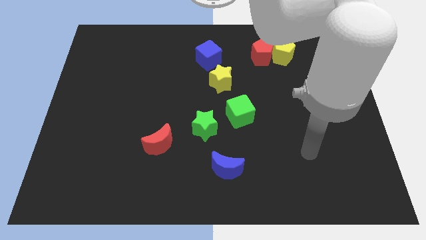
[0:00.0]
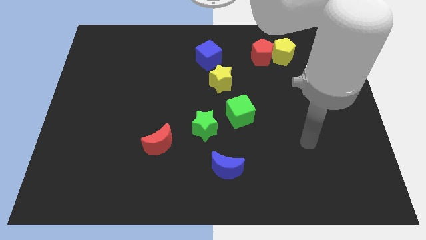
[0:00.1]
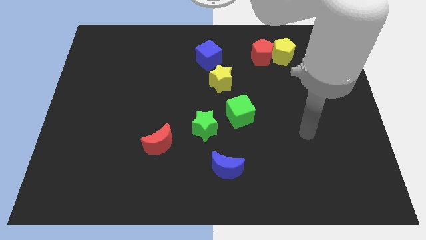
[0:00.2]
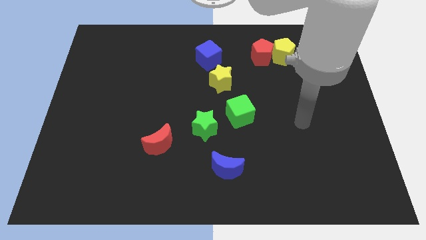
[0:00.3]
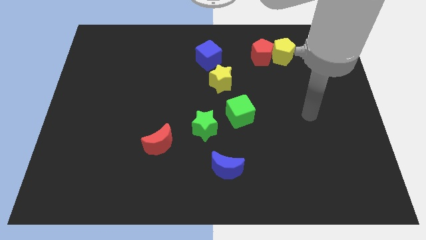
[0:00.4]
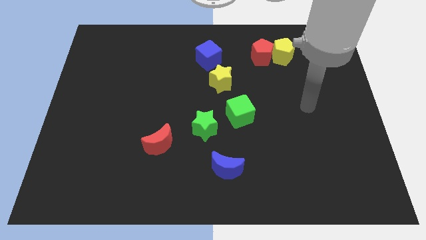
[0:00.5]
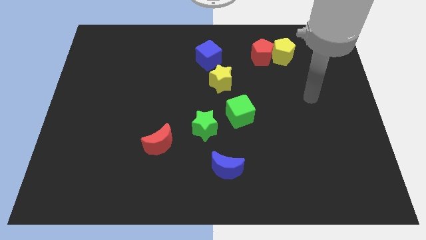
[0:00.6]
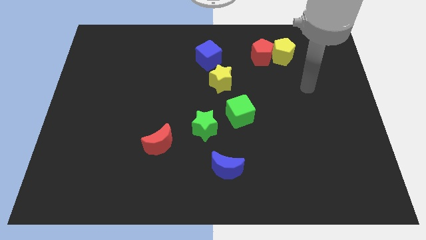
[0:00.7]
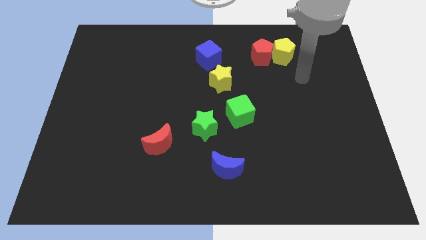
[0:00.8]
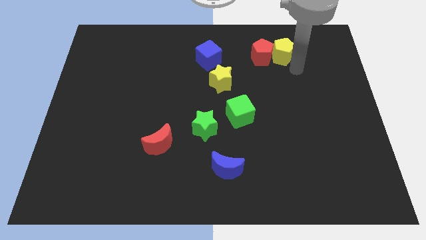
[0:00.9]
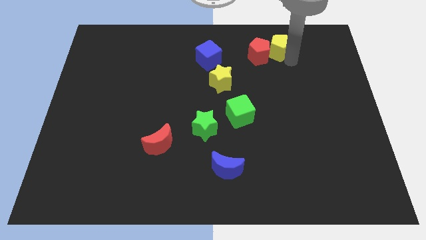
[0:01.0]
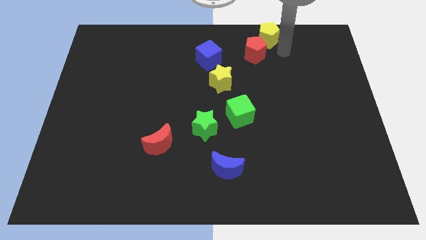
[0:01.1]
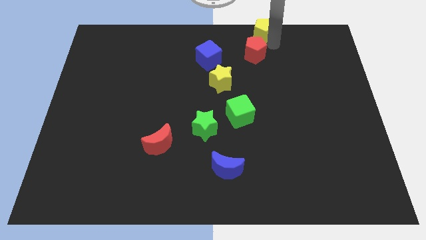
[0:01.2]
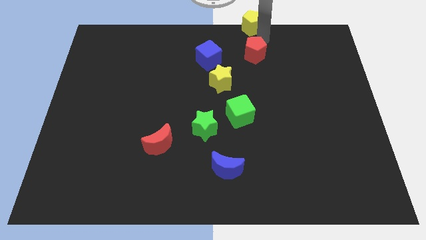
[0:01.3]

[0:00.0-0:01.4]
move the red pentagon away from the yellow pentagon

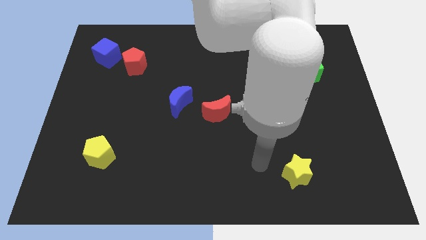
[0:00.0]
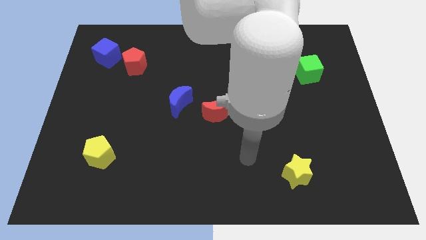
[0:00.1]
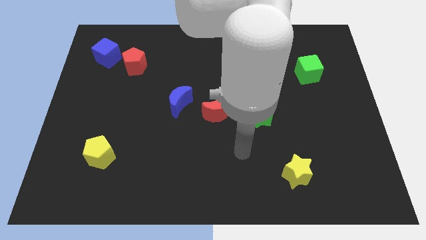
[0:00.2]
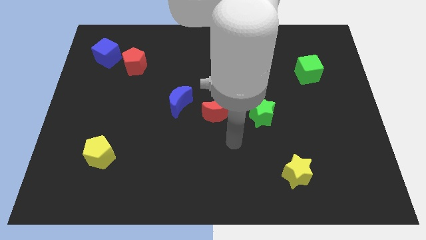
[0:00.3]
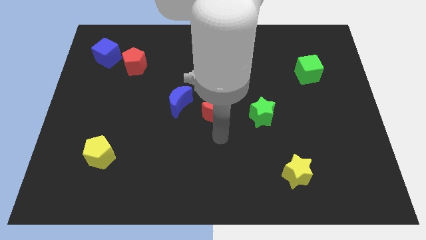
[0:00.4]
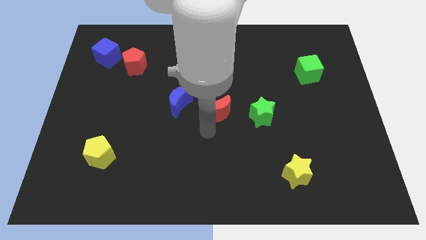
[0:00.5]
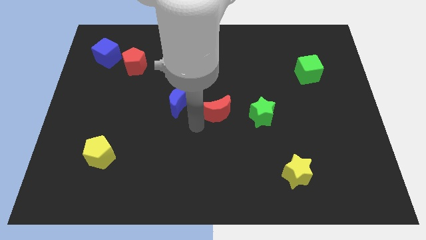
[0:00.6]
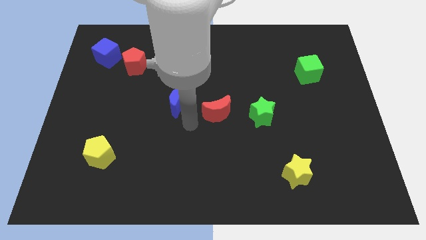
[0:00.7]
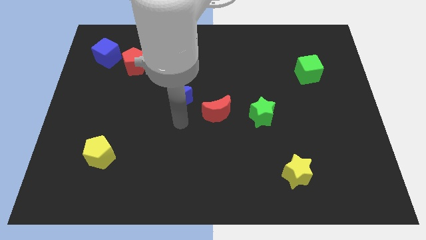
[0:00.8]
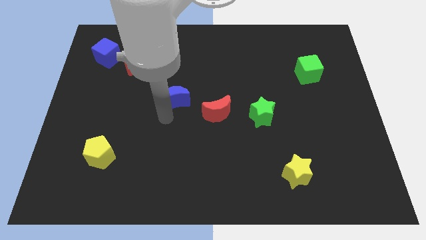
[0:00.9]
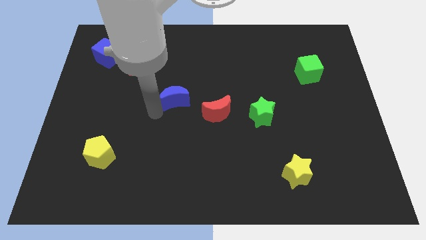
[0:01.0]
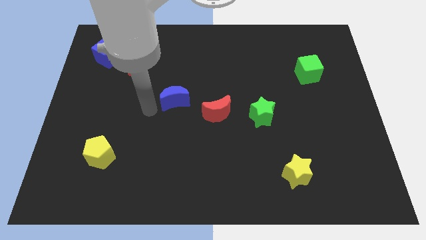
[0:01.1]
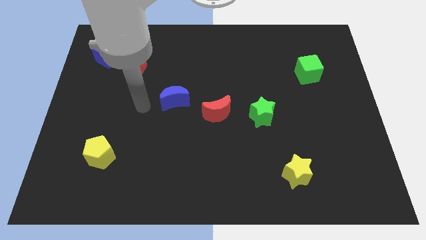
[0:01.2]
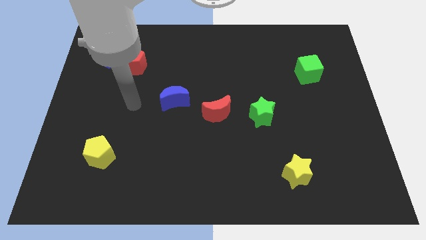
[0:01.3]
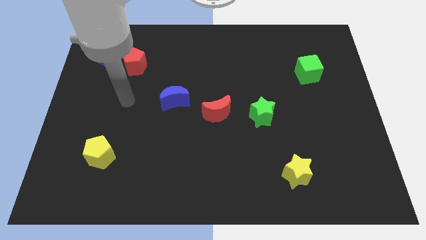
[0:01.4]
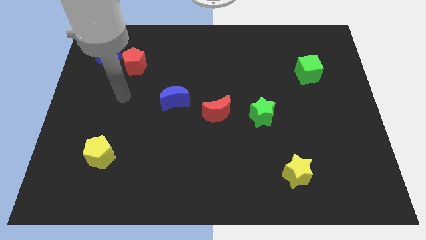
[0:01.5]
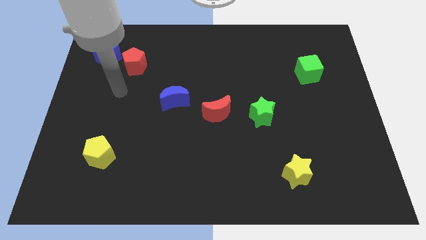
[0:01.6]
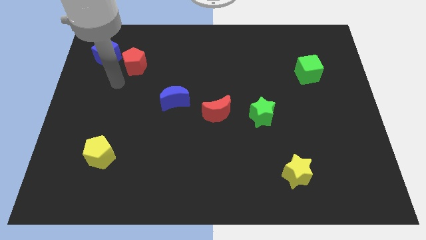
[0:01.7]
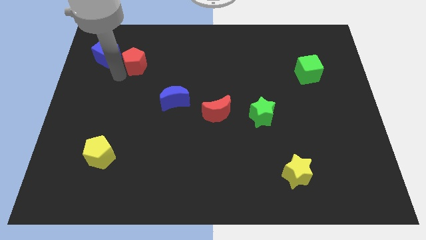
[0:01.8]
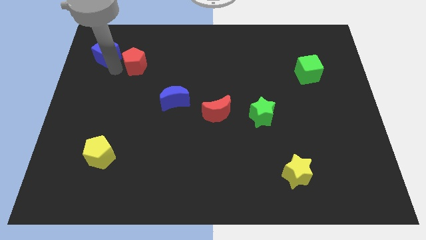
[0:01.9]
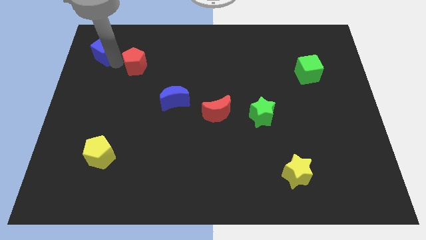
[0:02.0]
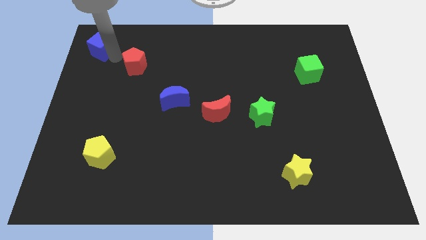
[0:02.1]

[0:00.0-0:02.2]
separate the red pentagon from the blue cube

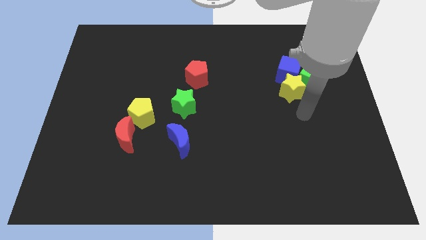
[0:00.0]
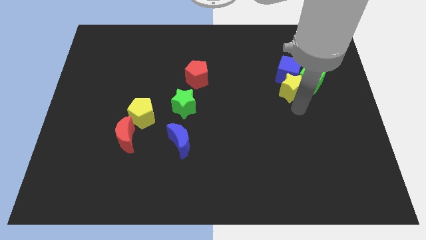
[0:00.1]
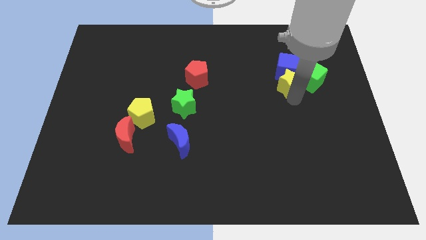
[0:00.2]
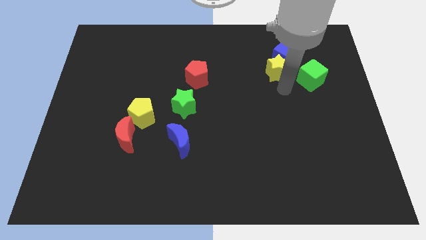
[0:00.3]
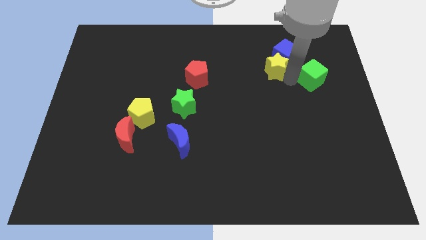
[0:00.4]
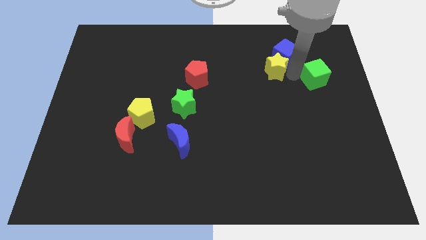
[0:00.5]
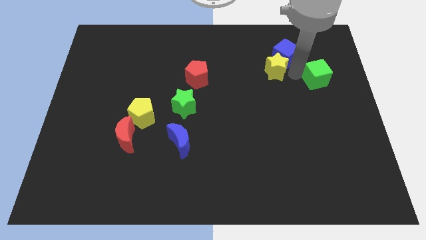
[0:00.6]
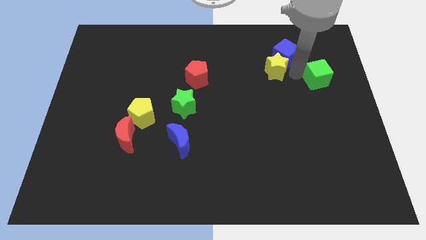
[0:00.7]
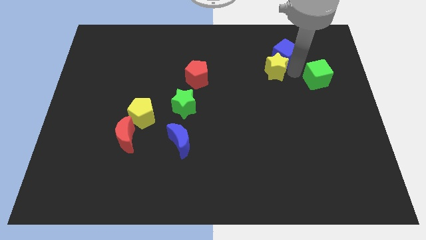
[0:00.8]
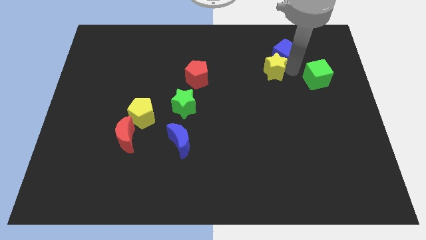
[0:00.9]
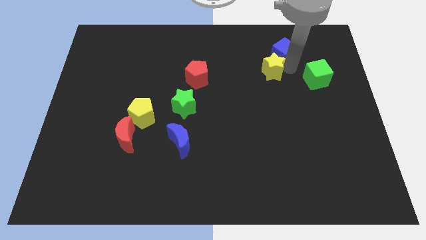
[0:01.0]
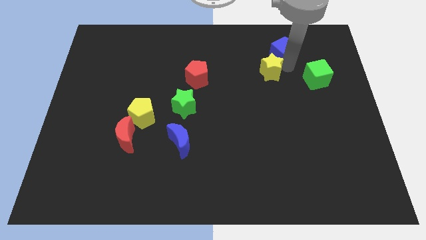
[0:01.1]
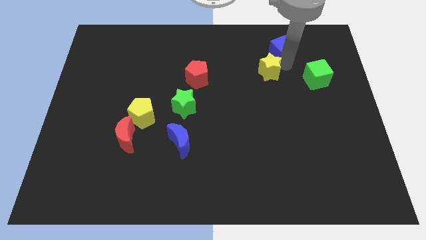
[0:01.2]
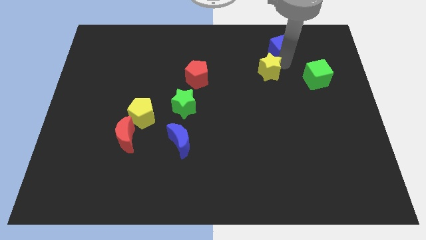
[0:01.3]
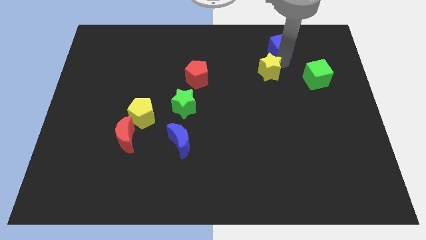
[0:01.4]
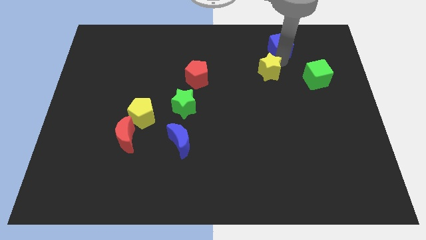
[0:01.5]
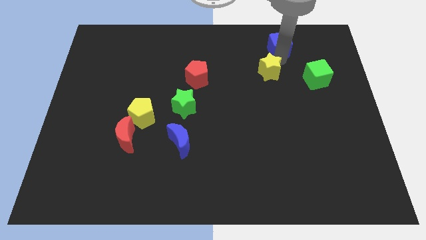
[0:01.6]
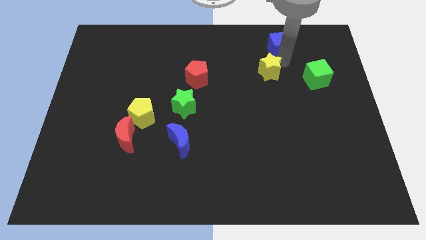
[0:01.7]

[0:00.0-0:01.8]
pull the blue cube apart from the yellow star and green cube

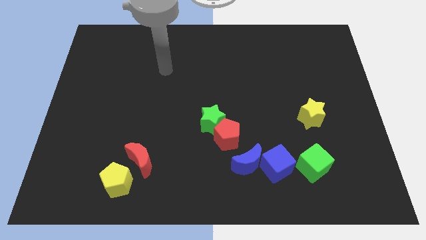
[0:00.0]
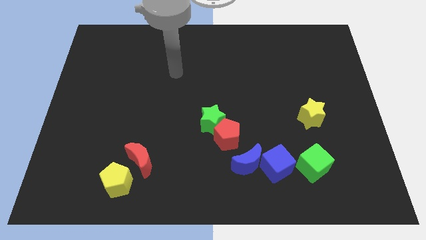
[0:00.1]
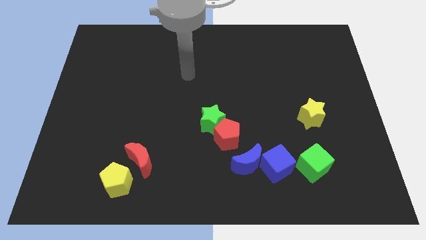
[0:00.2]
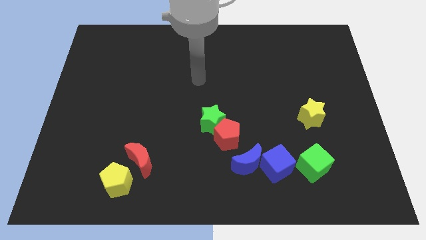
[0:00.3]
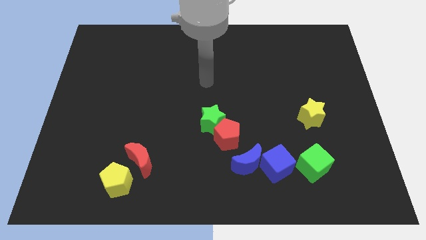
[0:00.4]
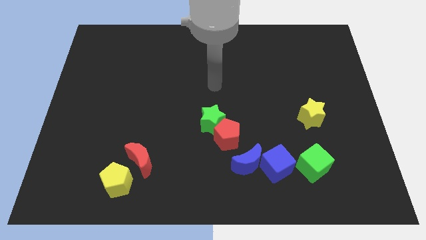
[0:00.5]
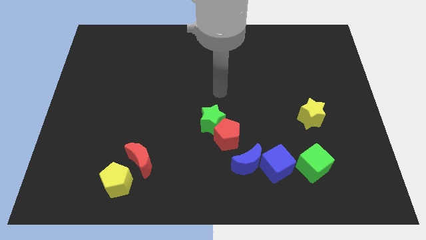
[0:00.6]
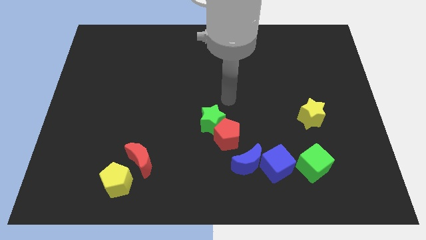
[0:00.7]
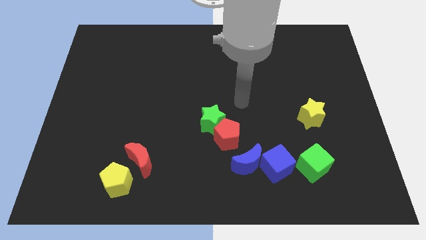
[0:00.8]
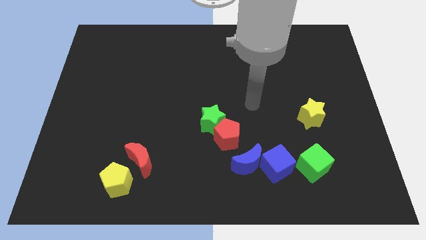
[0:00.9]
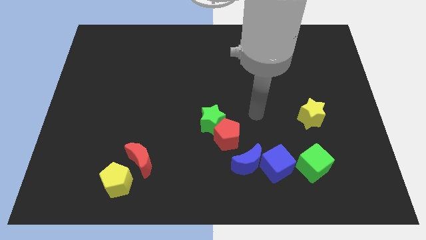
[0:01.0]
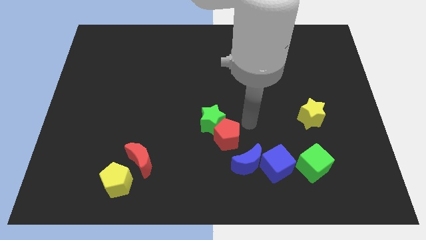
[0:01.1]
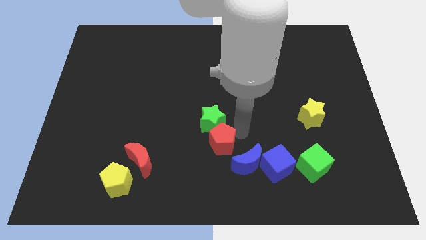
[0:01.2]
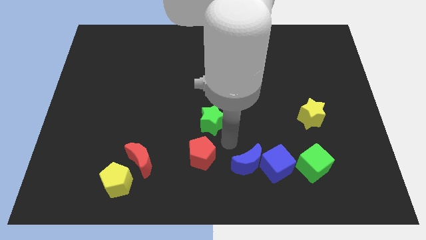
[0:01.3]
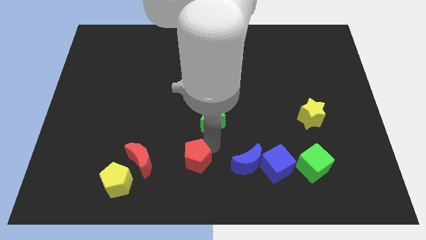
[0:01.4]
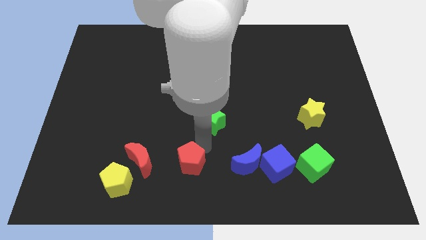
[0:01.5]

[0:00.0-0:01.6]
move the green star away from the red pentagon

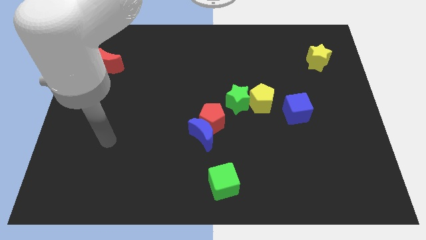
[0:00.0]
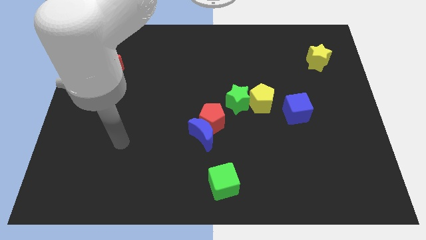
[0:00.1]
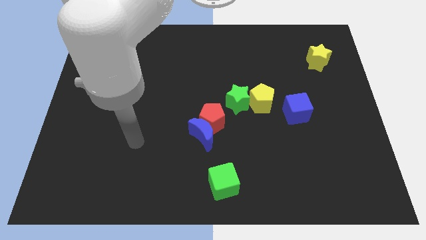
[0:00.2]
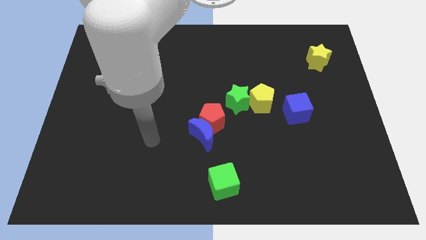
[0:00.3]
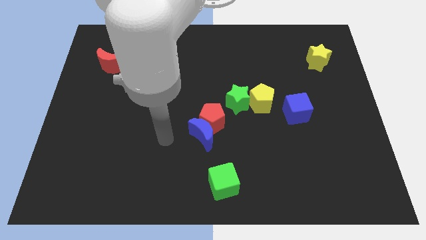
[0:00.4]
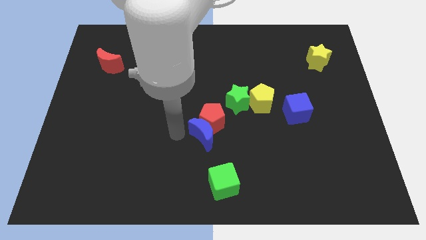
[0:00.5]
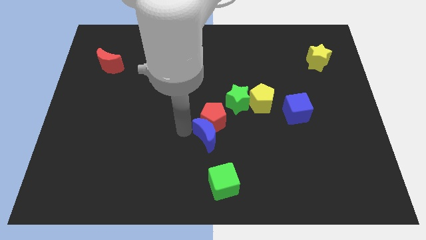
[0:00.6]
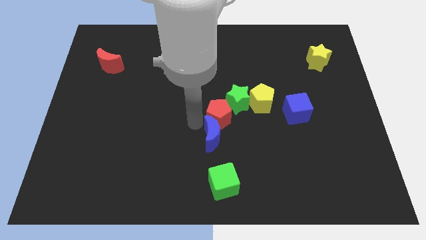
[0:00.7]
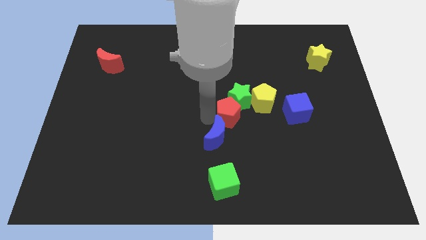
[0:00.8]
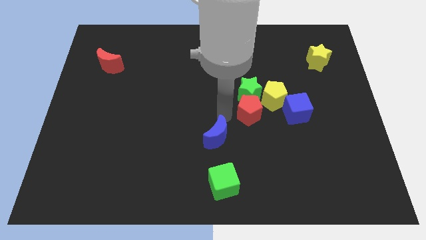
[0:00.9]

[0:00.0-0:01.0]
pull the blue moon apart from the red pentagon

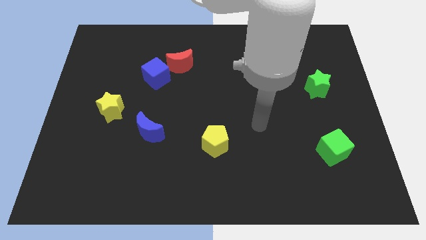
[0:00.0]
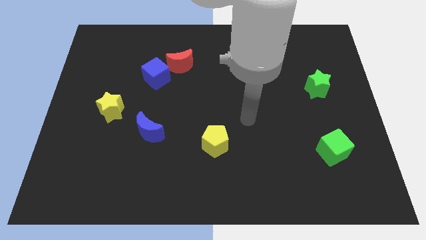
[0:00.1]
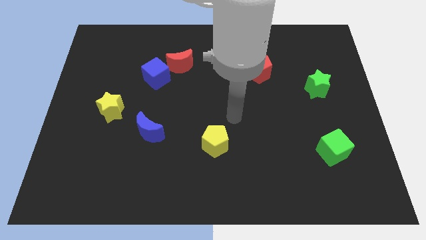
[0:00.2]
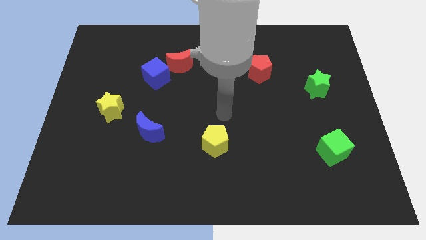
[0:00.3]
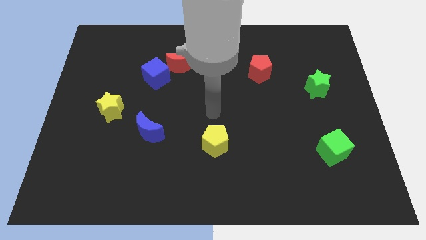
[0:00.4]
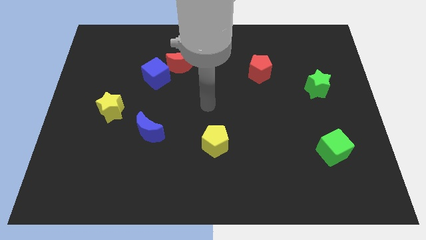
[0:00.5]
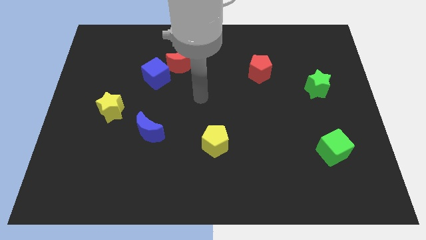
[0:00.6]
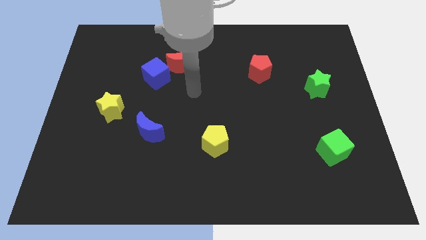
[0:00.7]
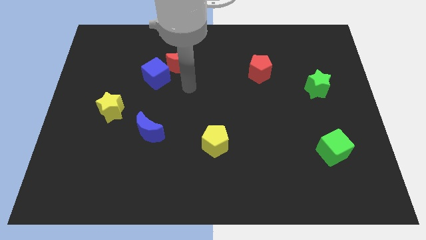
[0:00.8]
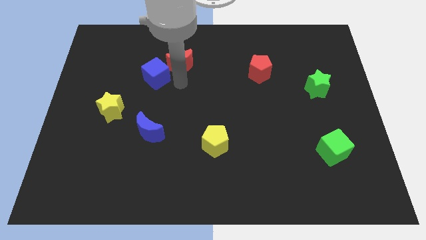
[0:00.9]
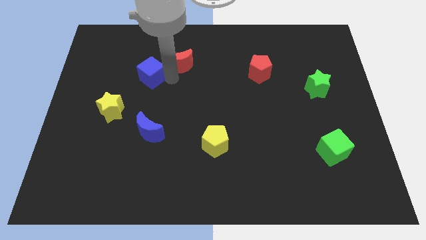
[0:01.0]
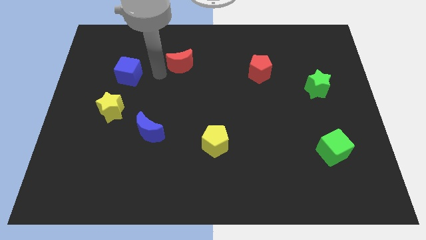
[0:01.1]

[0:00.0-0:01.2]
pull the red moon apart from the blue cube

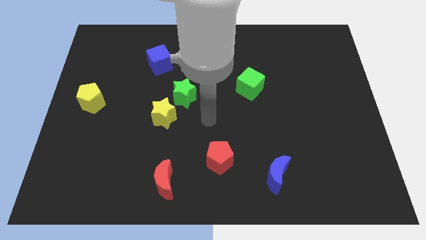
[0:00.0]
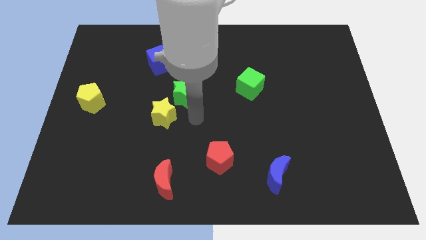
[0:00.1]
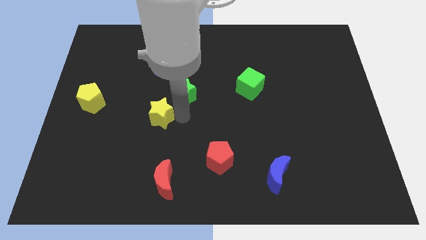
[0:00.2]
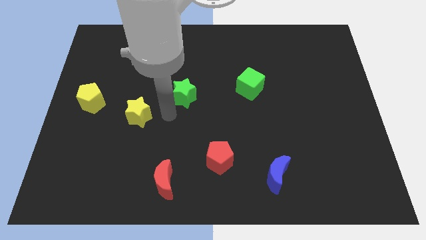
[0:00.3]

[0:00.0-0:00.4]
separate the green star from the yellow star
